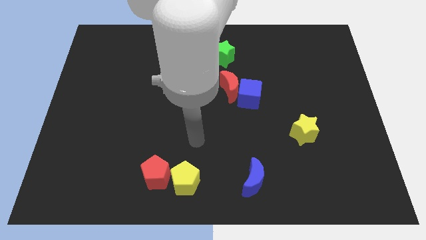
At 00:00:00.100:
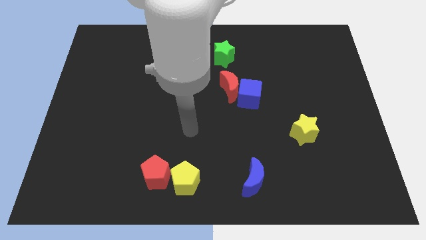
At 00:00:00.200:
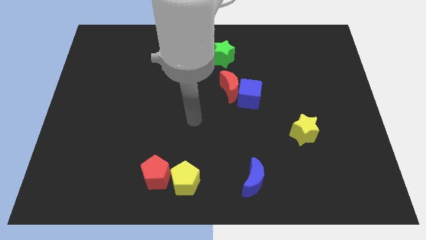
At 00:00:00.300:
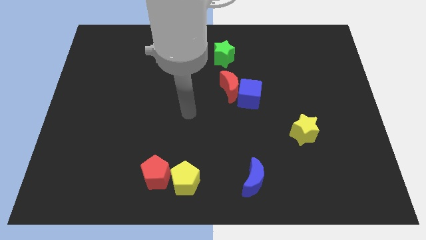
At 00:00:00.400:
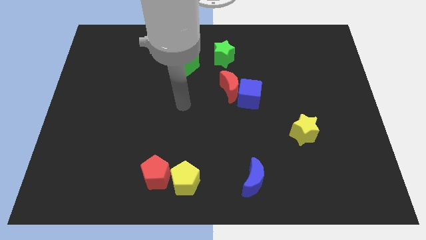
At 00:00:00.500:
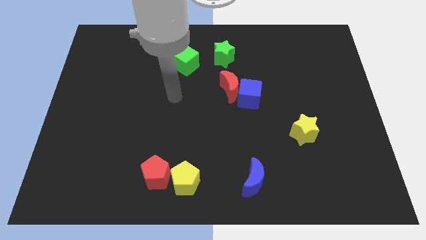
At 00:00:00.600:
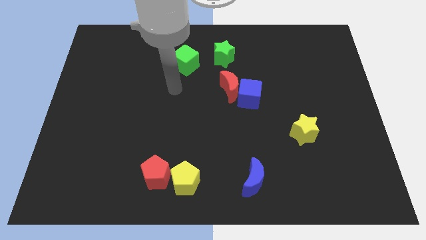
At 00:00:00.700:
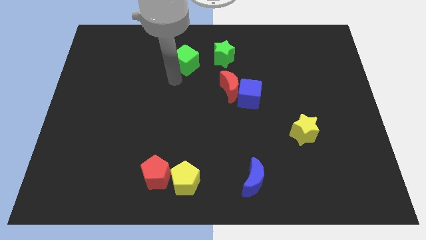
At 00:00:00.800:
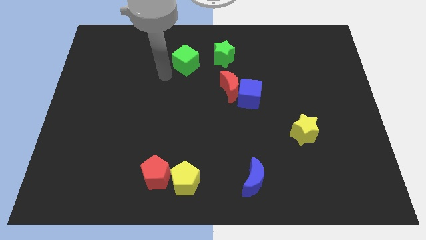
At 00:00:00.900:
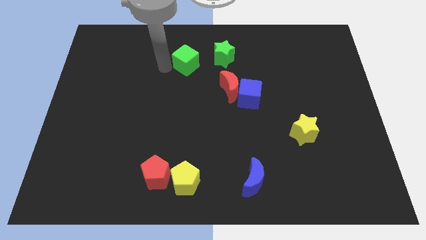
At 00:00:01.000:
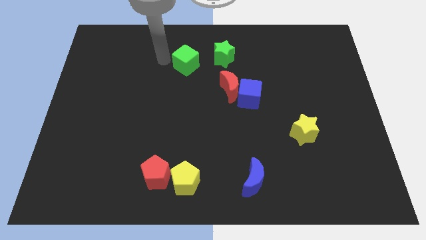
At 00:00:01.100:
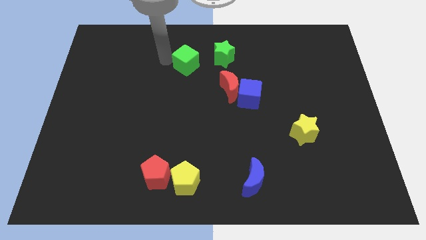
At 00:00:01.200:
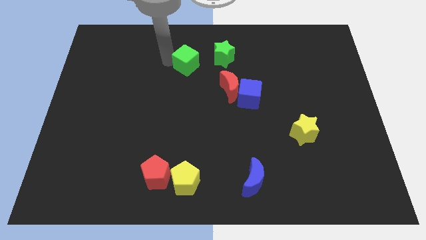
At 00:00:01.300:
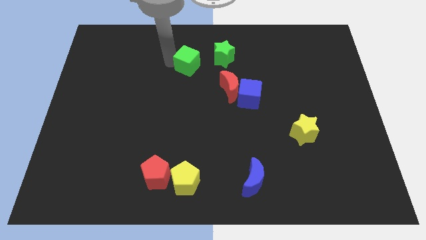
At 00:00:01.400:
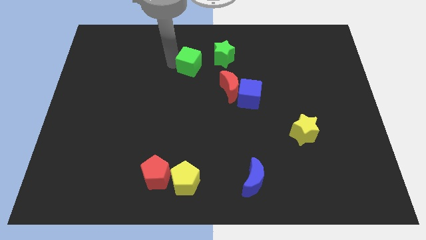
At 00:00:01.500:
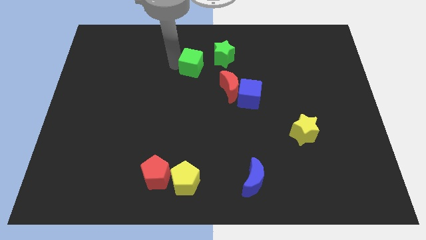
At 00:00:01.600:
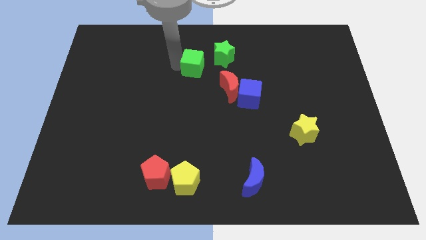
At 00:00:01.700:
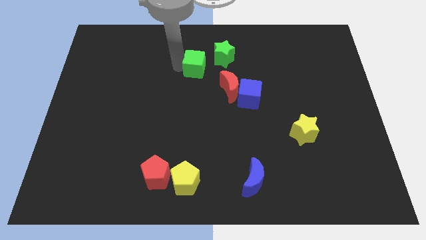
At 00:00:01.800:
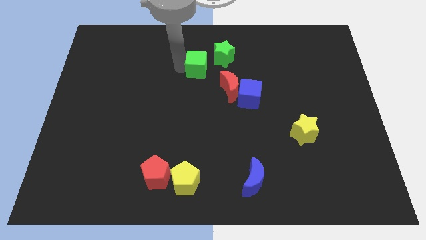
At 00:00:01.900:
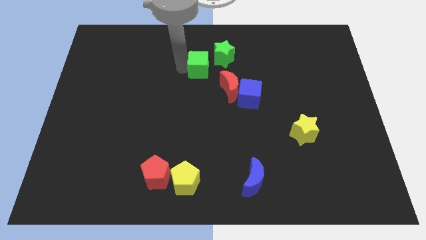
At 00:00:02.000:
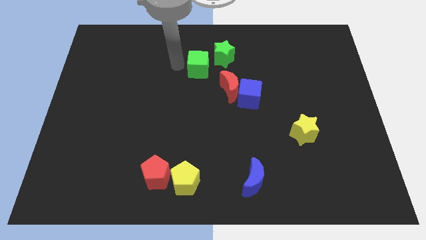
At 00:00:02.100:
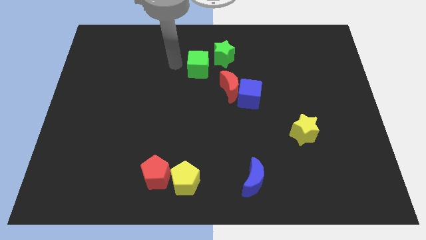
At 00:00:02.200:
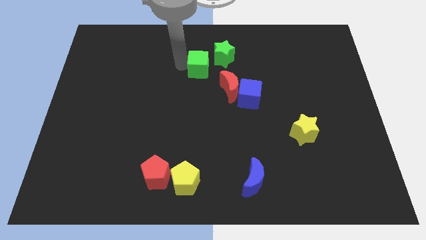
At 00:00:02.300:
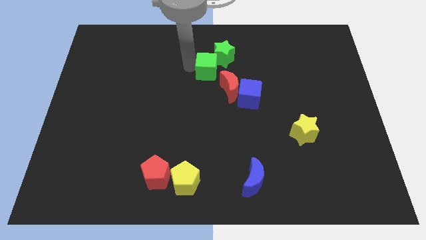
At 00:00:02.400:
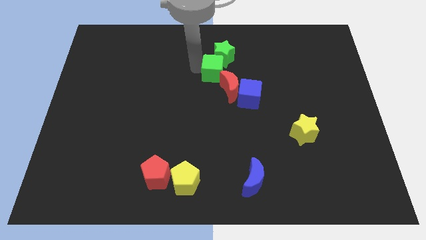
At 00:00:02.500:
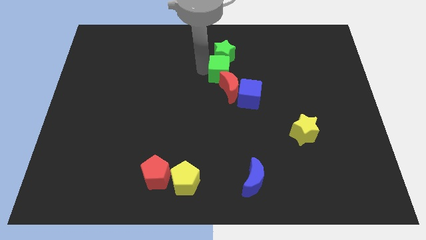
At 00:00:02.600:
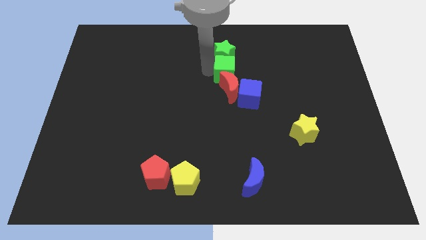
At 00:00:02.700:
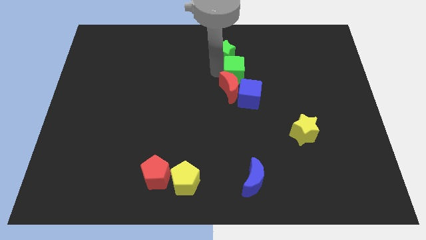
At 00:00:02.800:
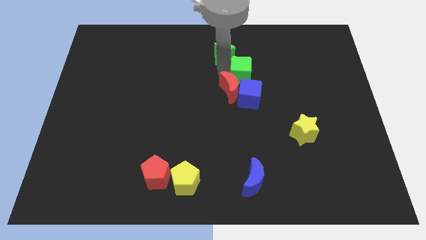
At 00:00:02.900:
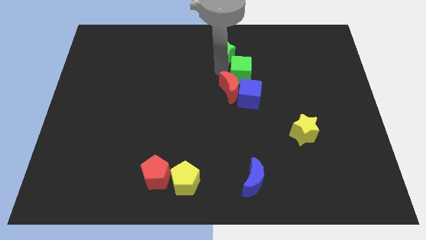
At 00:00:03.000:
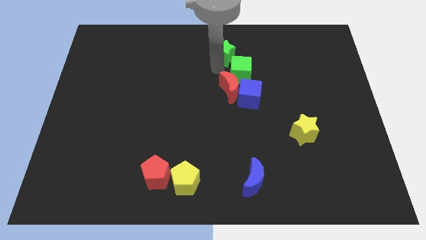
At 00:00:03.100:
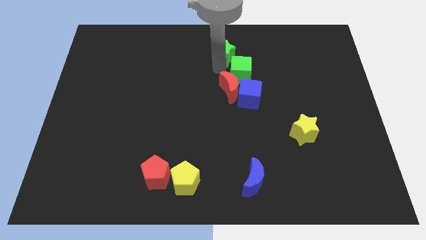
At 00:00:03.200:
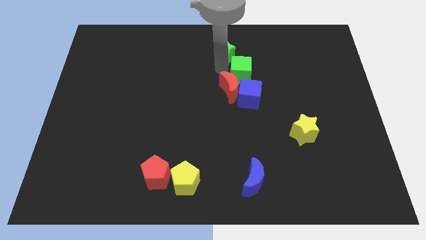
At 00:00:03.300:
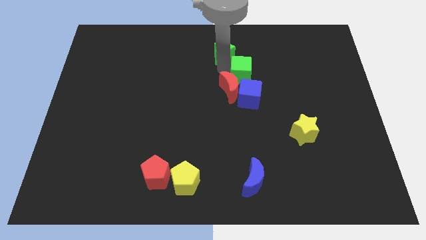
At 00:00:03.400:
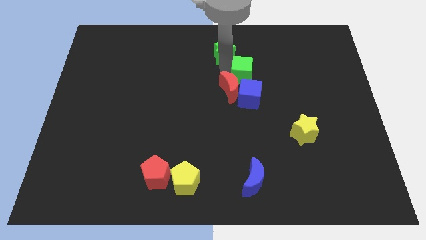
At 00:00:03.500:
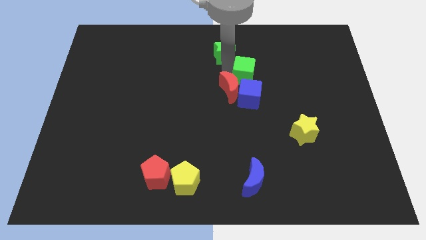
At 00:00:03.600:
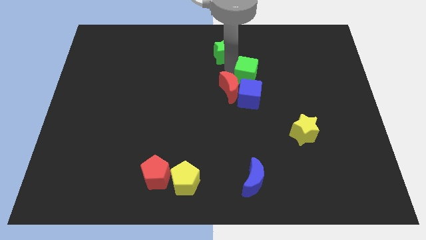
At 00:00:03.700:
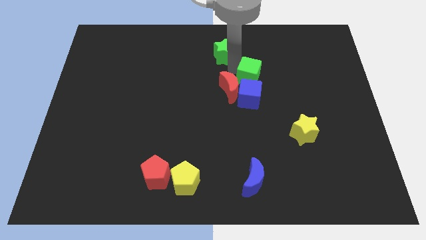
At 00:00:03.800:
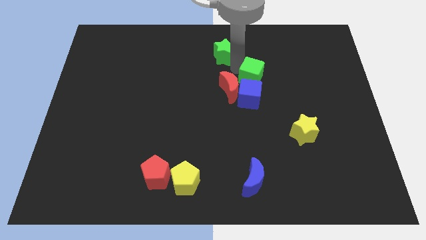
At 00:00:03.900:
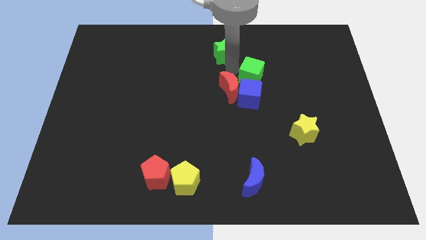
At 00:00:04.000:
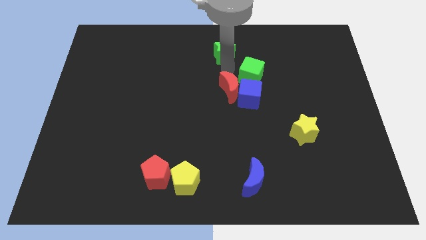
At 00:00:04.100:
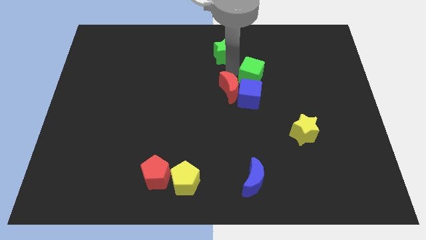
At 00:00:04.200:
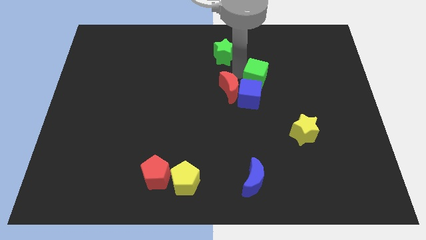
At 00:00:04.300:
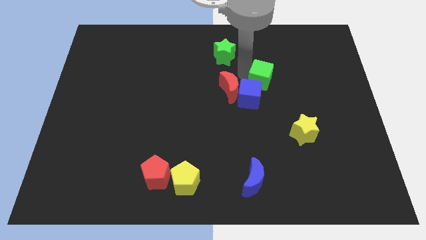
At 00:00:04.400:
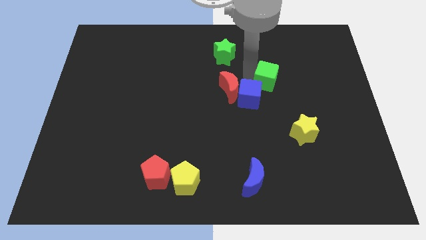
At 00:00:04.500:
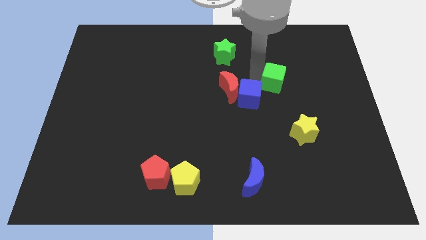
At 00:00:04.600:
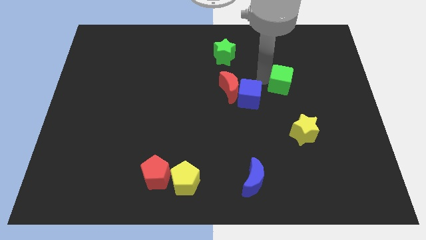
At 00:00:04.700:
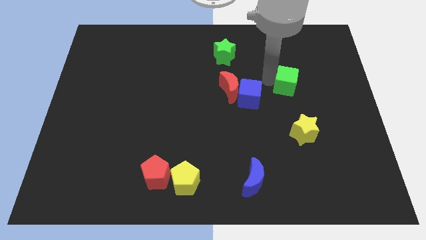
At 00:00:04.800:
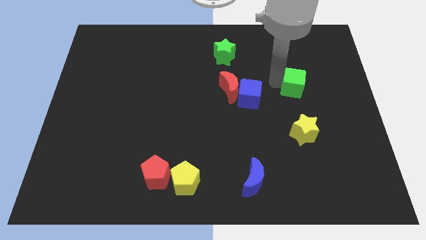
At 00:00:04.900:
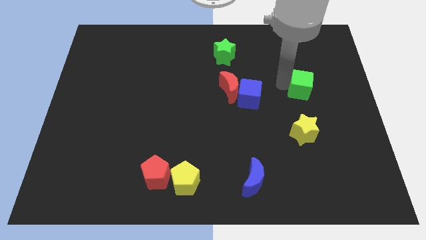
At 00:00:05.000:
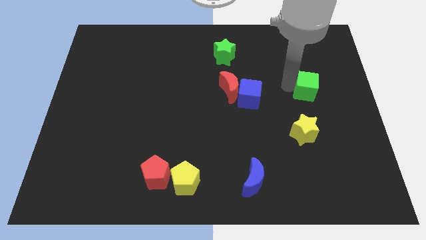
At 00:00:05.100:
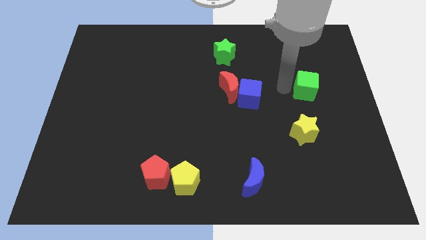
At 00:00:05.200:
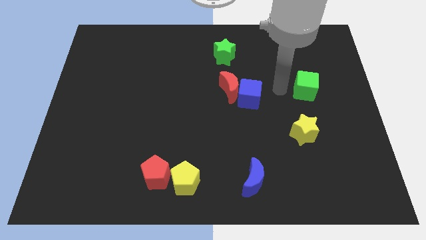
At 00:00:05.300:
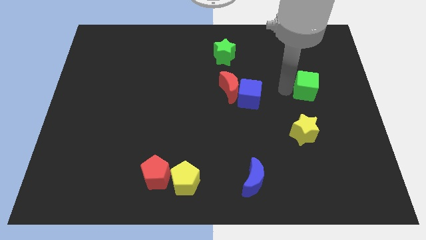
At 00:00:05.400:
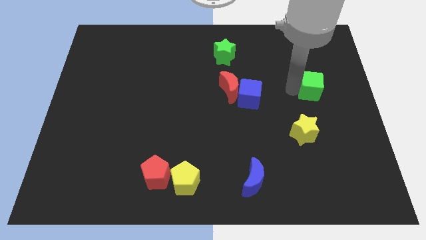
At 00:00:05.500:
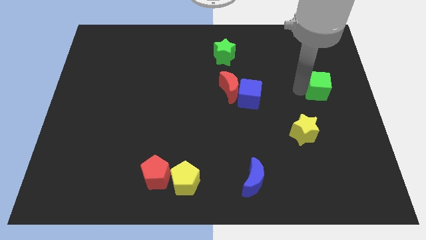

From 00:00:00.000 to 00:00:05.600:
put the green cube to the center right

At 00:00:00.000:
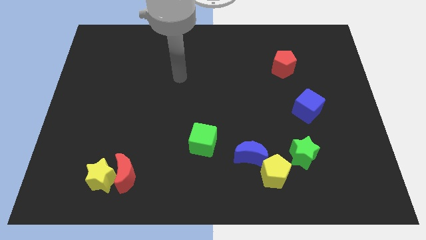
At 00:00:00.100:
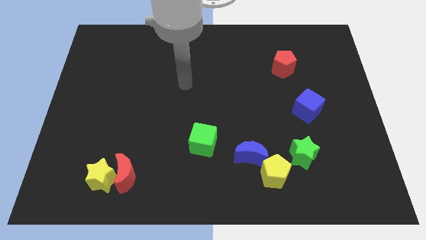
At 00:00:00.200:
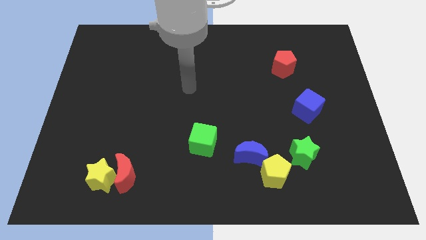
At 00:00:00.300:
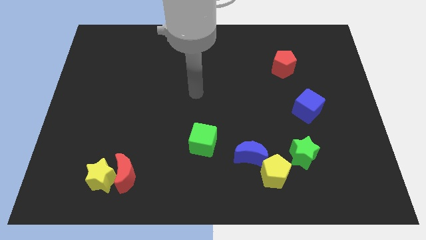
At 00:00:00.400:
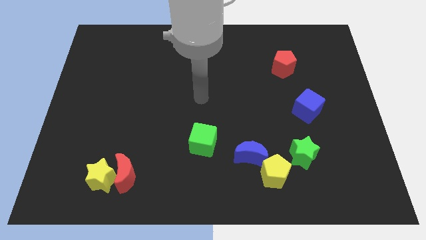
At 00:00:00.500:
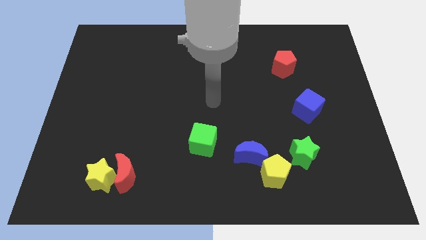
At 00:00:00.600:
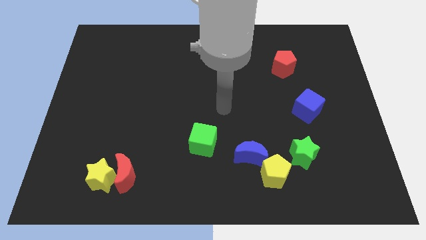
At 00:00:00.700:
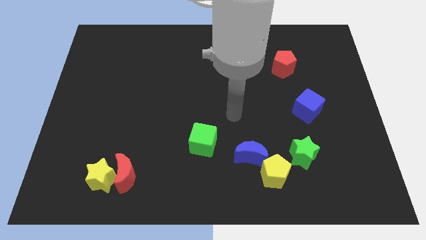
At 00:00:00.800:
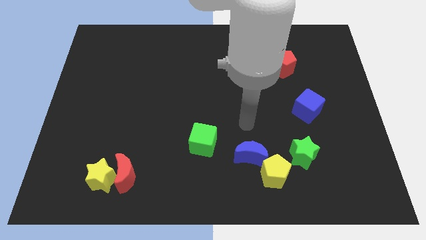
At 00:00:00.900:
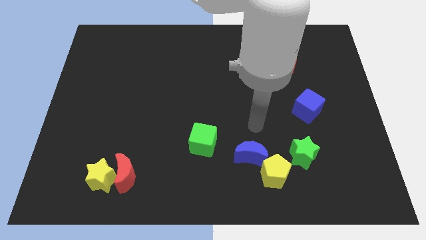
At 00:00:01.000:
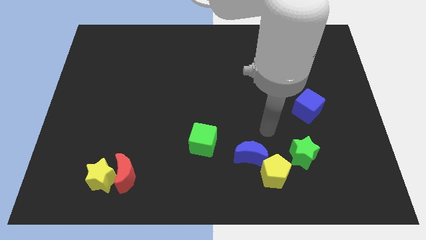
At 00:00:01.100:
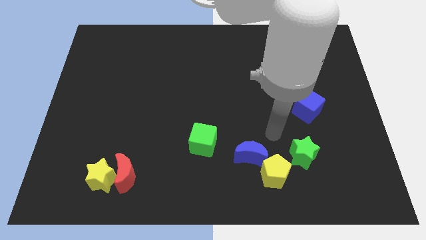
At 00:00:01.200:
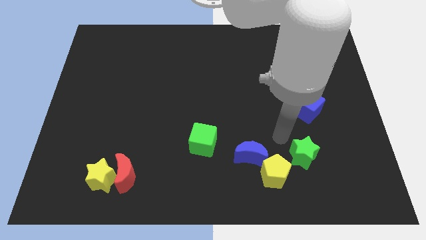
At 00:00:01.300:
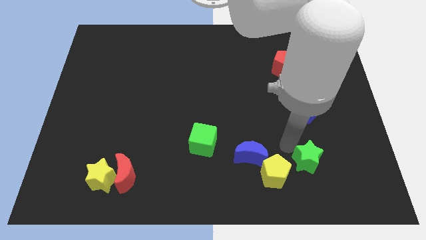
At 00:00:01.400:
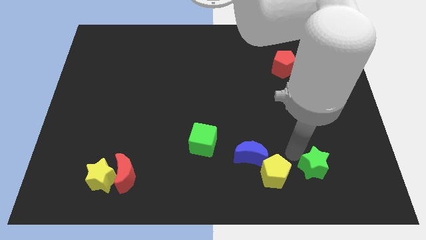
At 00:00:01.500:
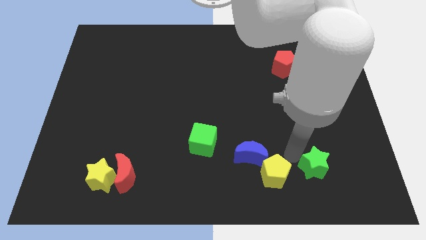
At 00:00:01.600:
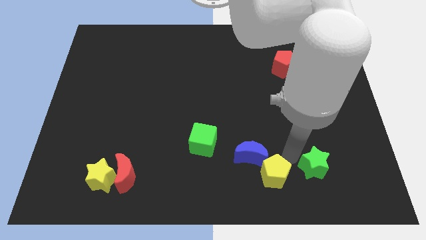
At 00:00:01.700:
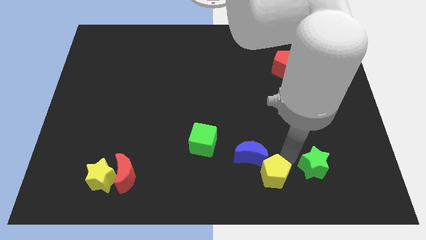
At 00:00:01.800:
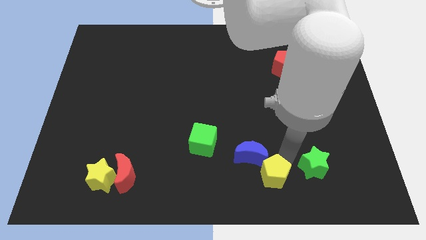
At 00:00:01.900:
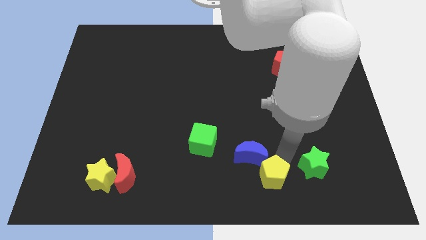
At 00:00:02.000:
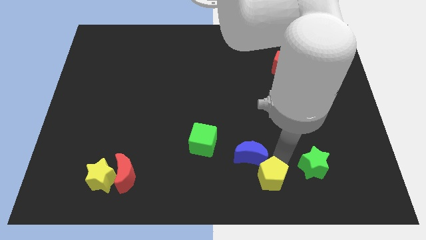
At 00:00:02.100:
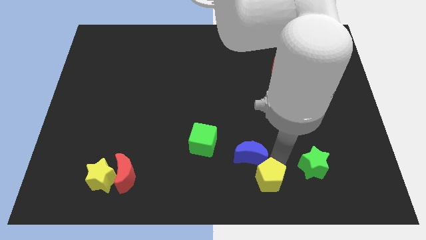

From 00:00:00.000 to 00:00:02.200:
slide the yellow pentagon to the bottom
